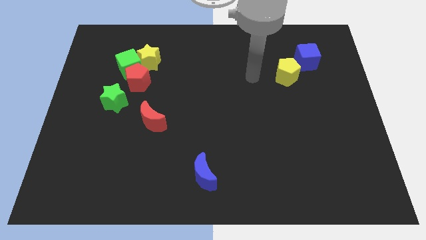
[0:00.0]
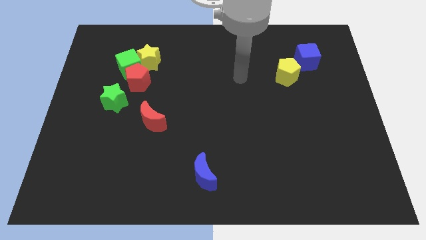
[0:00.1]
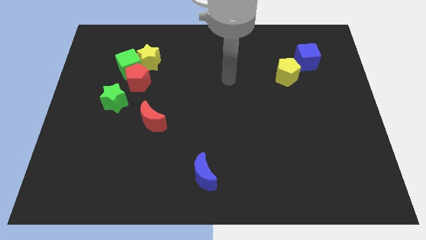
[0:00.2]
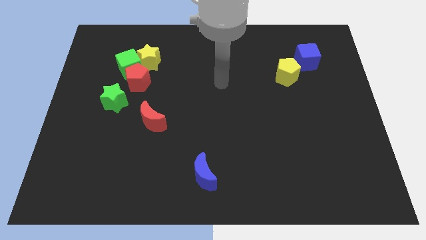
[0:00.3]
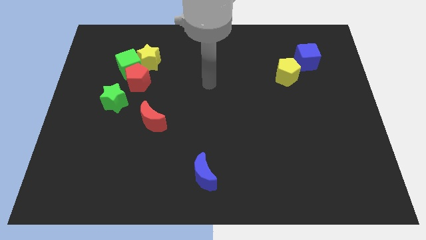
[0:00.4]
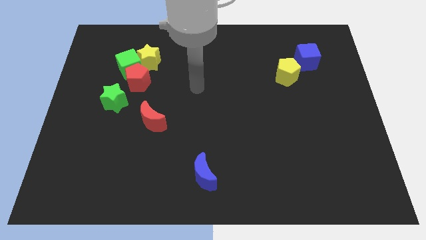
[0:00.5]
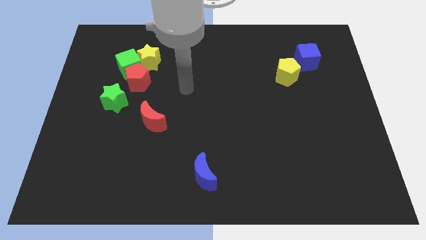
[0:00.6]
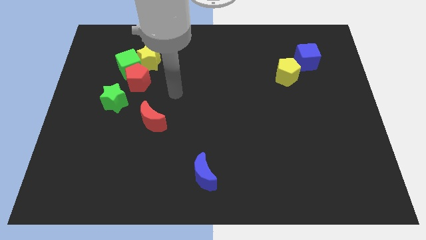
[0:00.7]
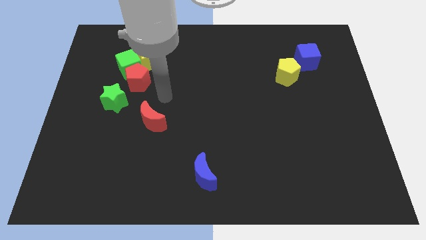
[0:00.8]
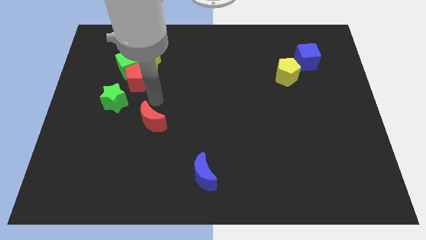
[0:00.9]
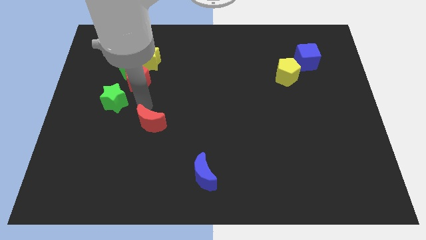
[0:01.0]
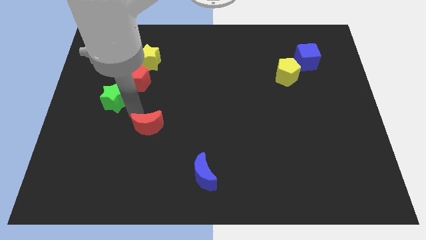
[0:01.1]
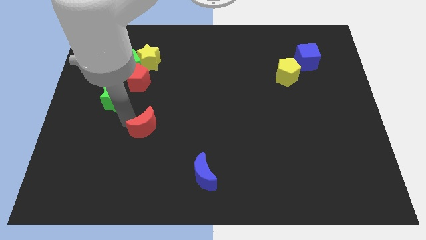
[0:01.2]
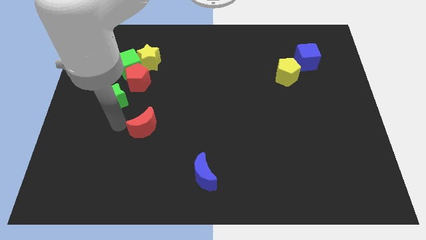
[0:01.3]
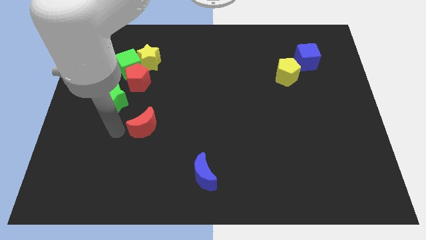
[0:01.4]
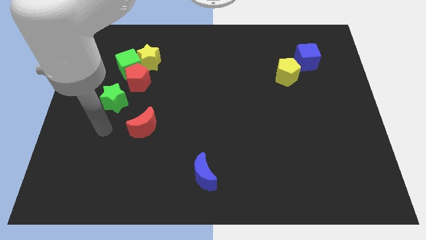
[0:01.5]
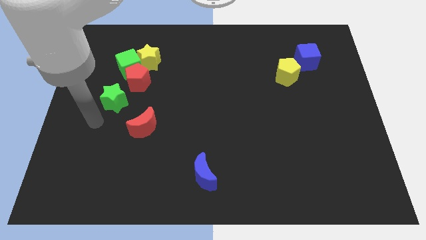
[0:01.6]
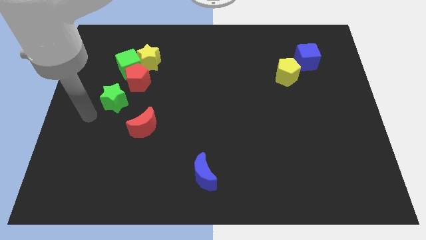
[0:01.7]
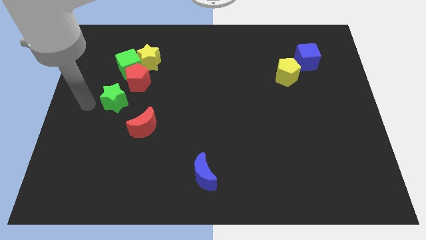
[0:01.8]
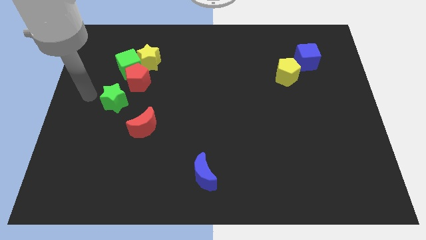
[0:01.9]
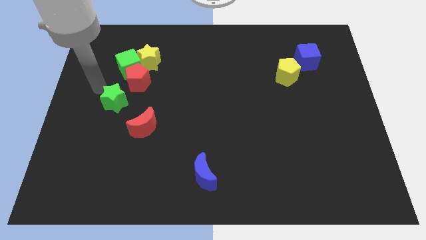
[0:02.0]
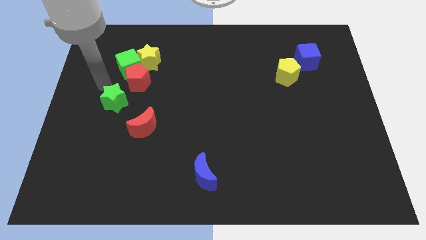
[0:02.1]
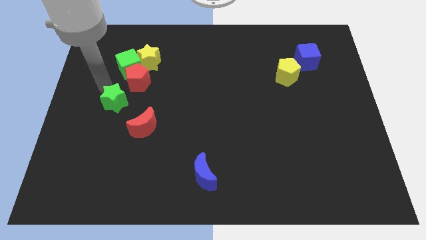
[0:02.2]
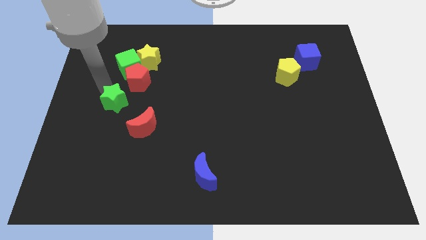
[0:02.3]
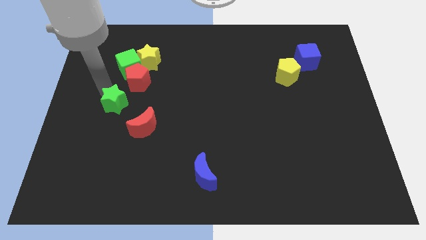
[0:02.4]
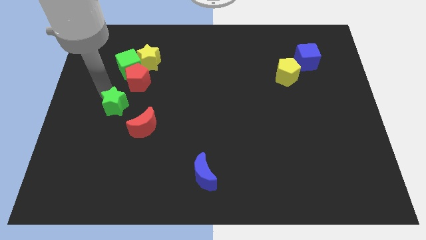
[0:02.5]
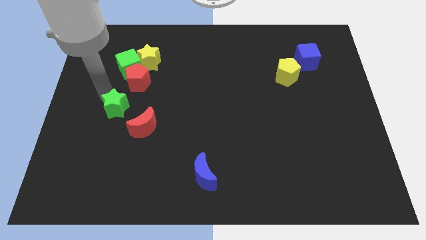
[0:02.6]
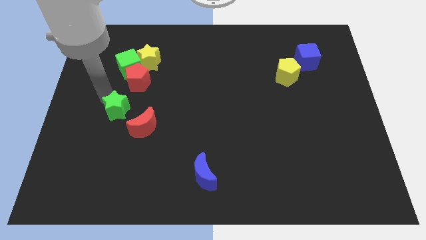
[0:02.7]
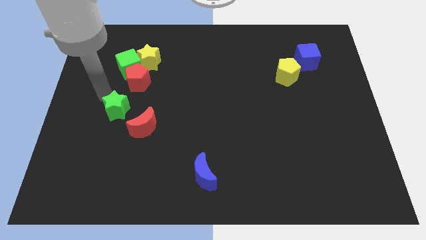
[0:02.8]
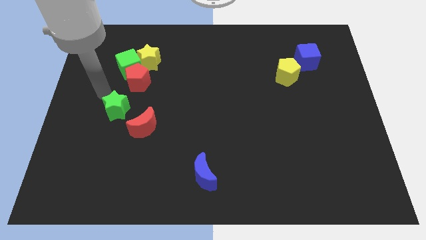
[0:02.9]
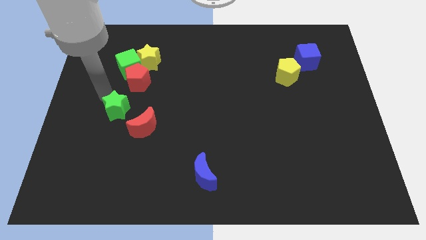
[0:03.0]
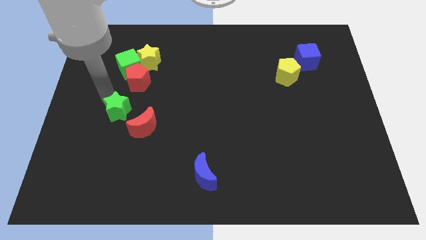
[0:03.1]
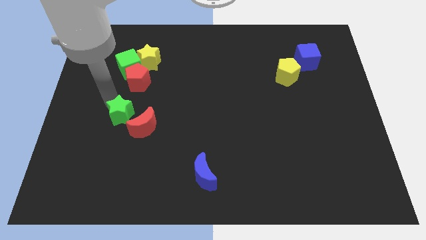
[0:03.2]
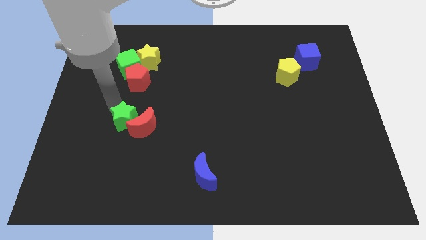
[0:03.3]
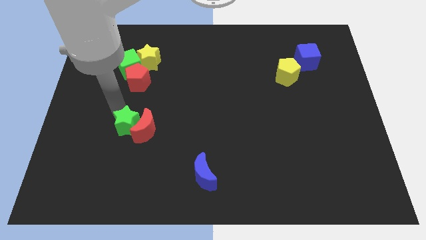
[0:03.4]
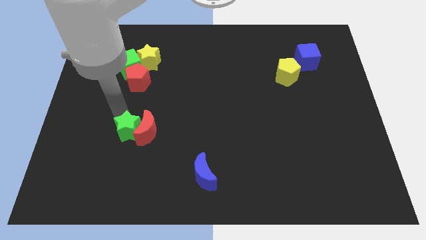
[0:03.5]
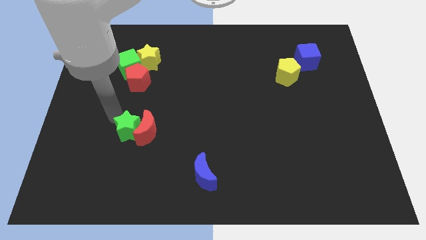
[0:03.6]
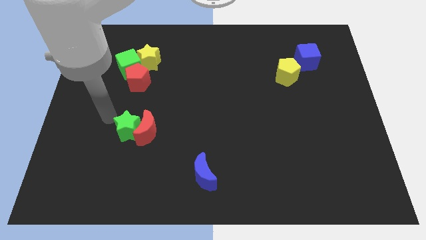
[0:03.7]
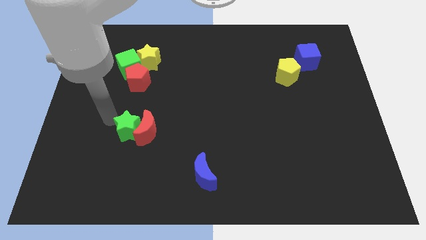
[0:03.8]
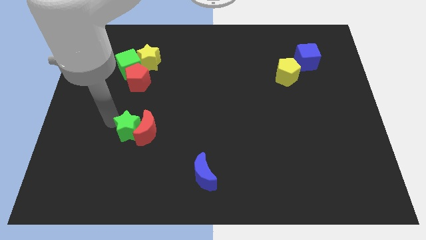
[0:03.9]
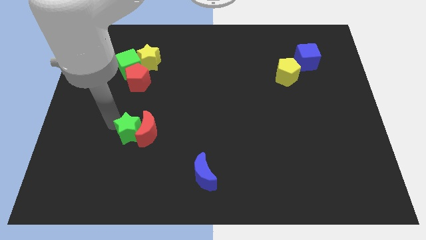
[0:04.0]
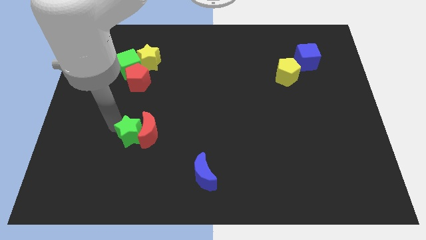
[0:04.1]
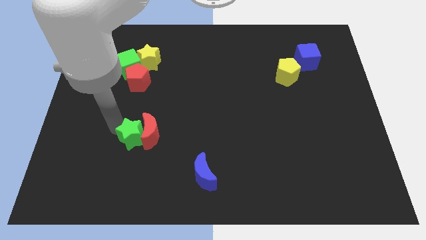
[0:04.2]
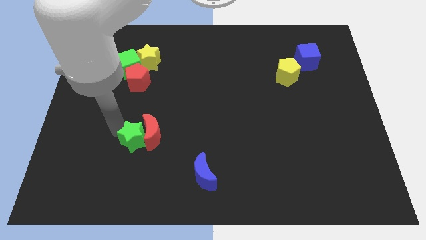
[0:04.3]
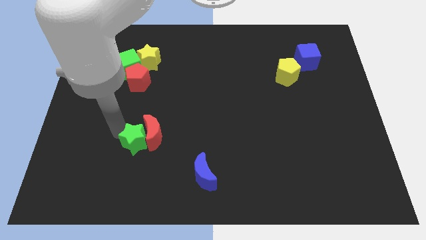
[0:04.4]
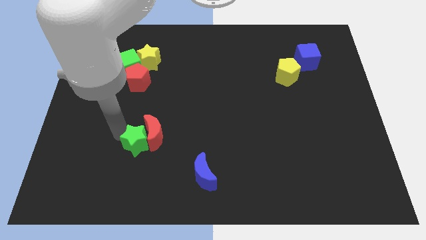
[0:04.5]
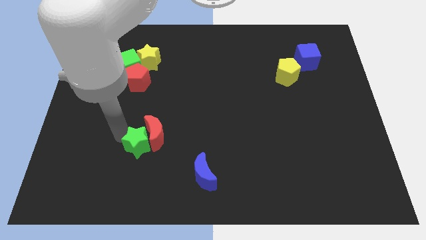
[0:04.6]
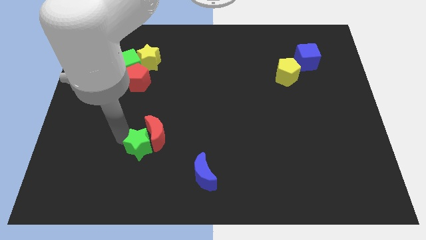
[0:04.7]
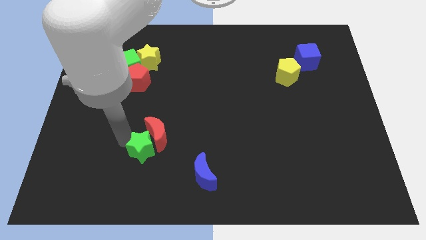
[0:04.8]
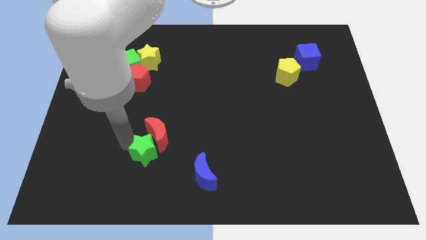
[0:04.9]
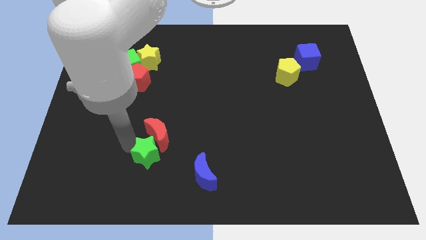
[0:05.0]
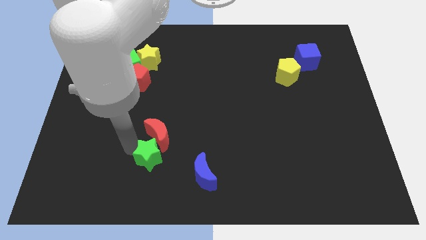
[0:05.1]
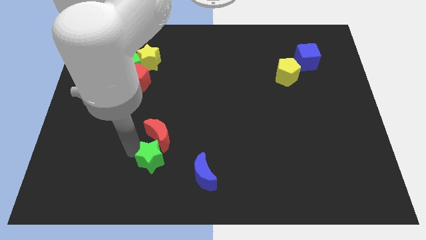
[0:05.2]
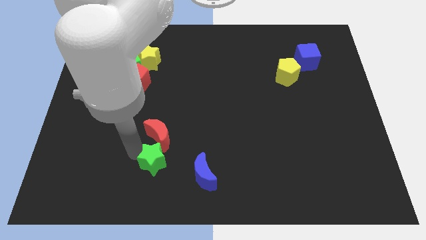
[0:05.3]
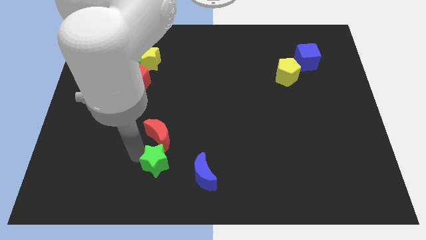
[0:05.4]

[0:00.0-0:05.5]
move the green star diagonally up and to the left of the blue moon

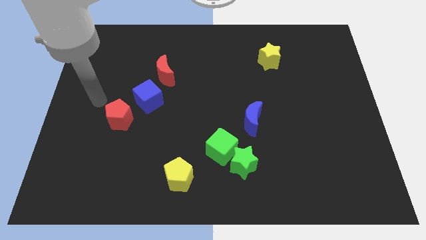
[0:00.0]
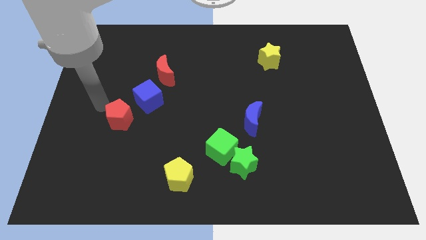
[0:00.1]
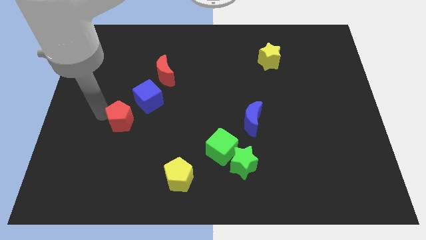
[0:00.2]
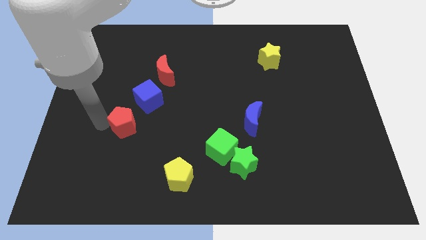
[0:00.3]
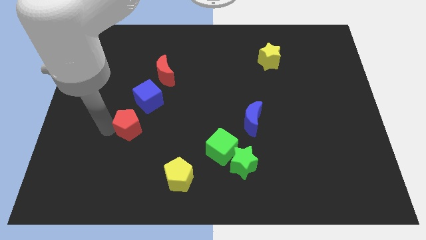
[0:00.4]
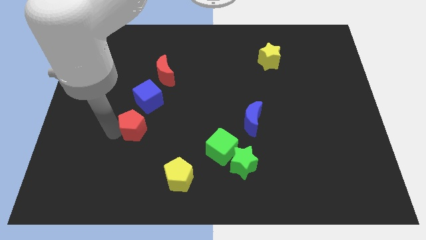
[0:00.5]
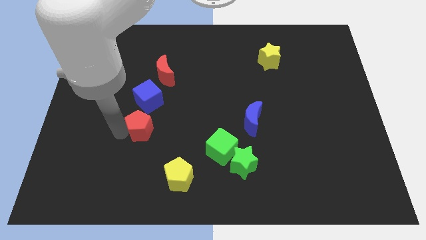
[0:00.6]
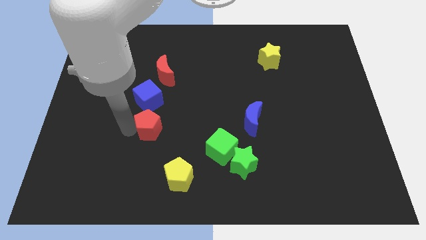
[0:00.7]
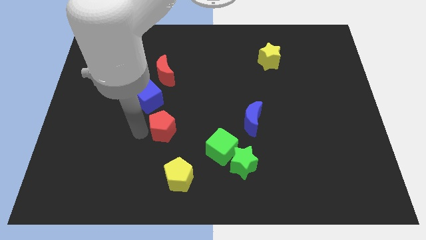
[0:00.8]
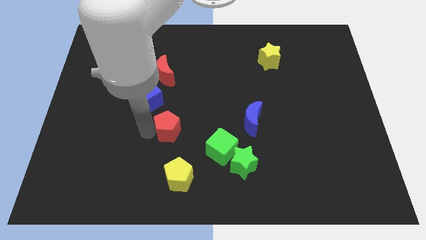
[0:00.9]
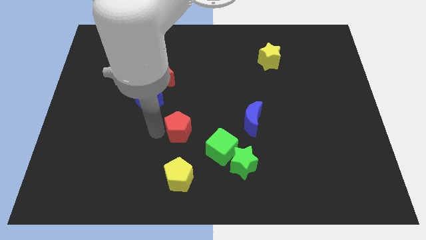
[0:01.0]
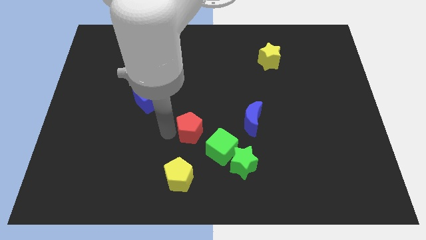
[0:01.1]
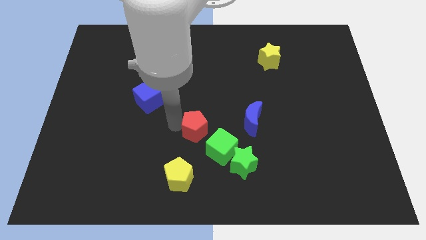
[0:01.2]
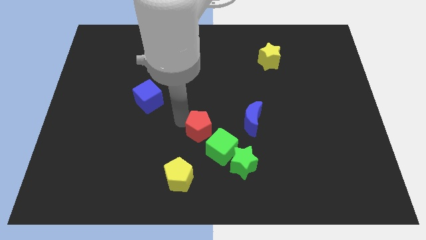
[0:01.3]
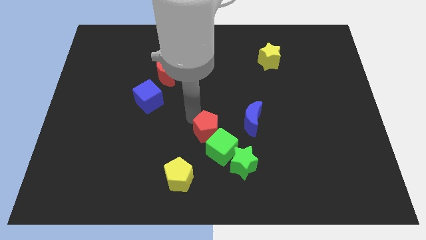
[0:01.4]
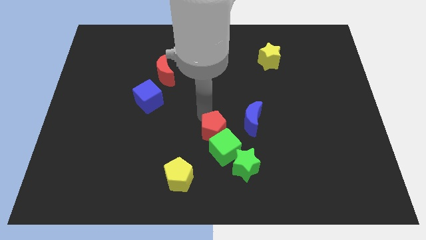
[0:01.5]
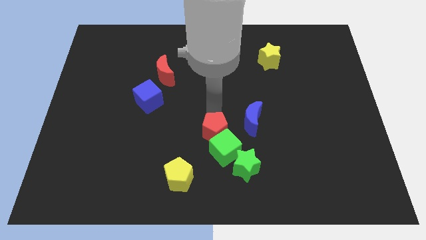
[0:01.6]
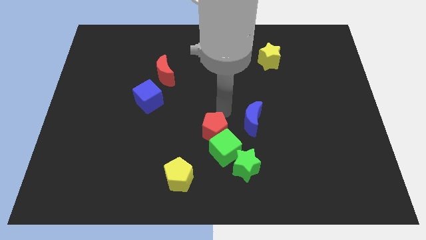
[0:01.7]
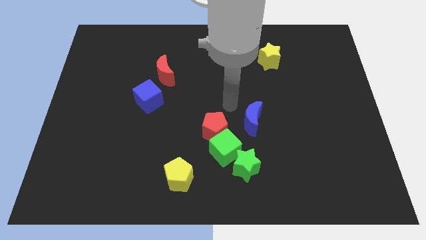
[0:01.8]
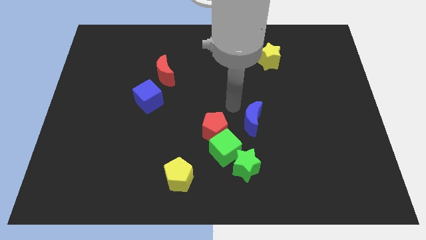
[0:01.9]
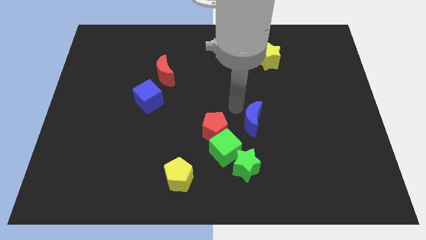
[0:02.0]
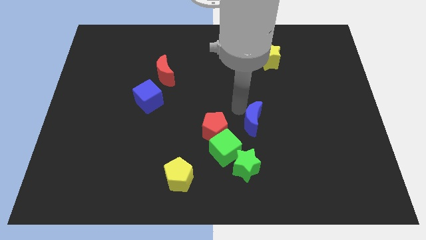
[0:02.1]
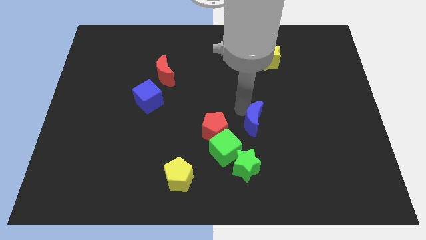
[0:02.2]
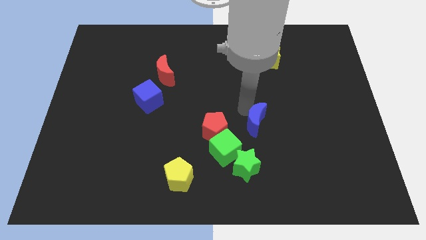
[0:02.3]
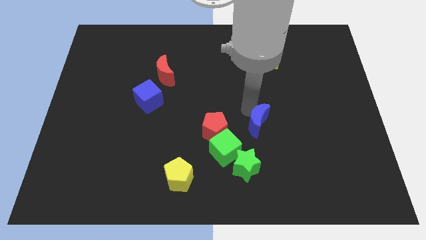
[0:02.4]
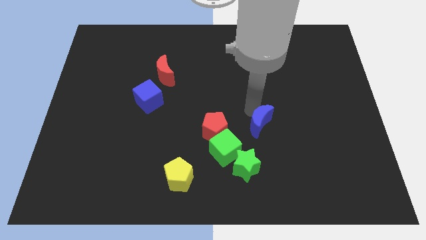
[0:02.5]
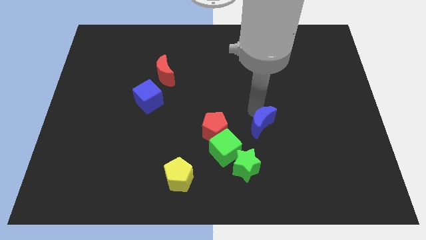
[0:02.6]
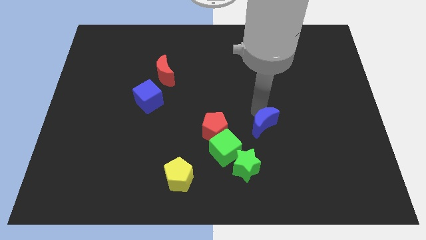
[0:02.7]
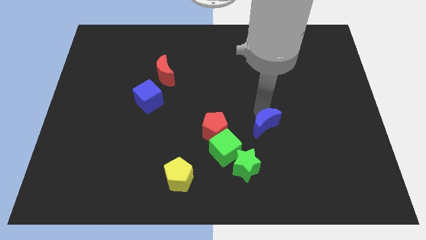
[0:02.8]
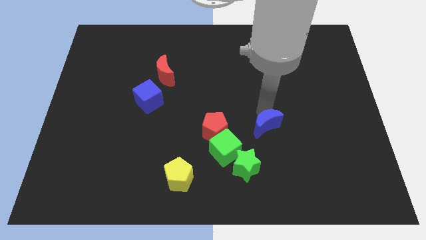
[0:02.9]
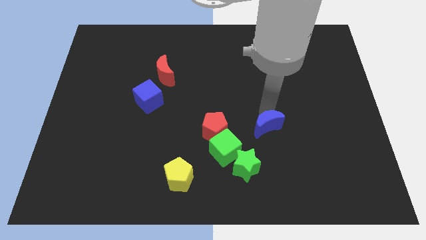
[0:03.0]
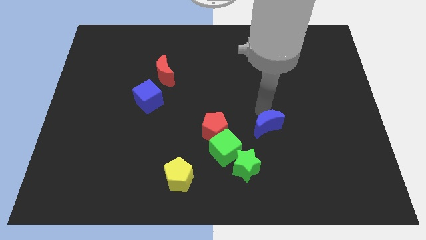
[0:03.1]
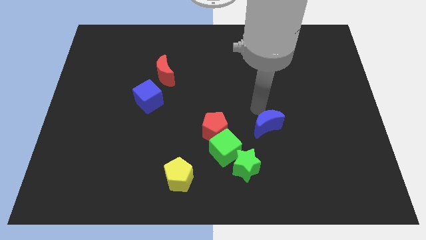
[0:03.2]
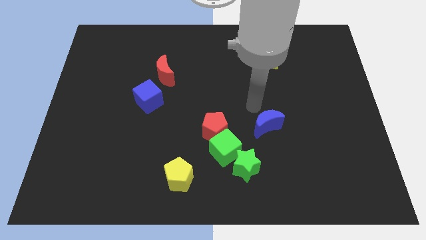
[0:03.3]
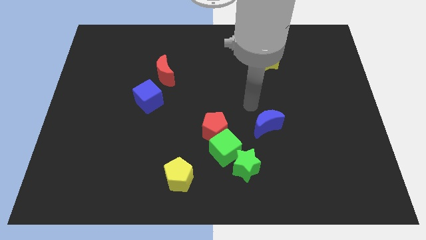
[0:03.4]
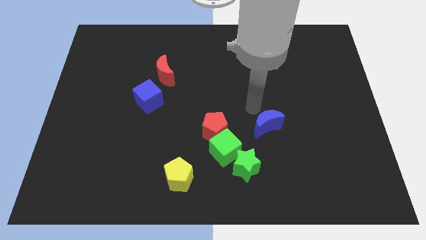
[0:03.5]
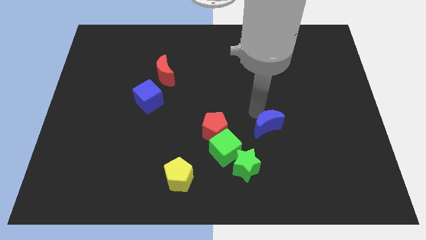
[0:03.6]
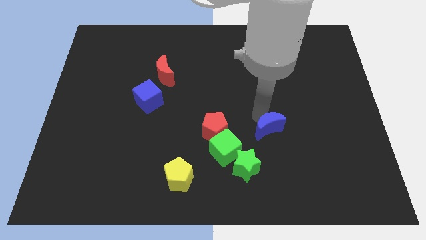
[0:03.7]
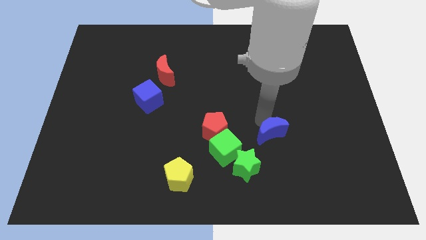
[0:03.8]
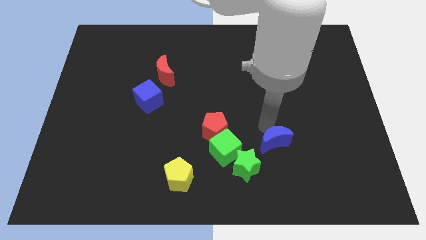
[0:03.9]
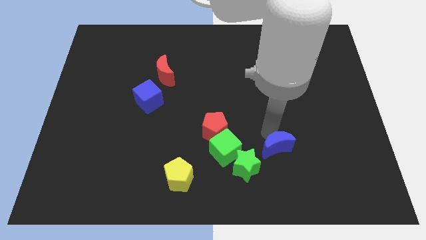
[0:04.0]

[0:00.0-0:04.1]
put the blue moon right of the green star
